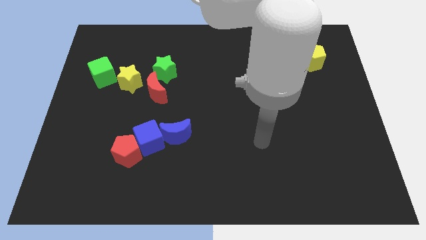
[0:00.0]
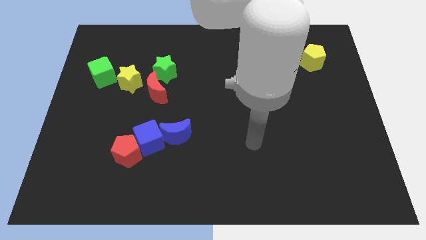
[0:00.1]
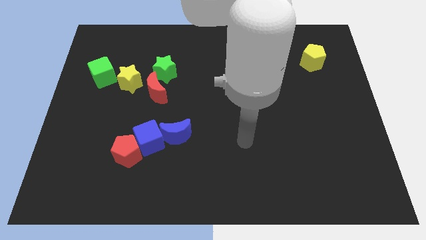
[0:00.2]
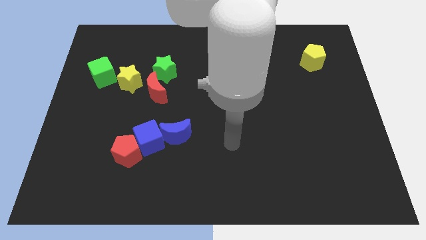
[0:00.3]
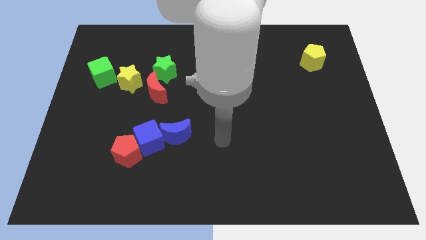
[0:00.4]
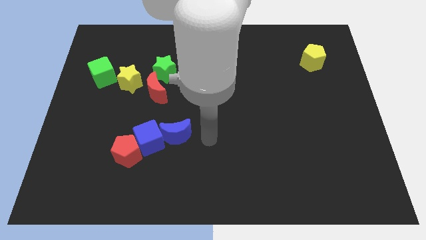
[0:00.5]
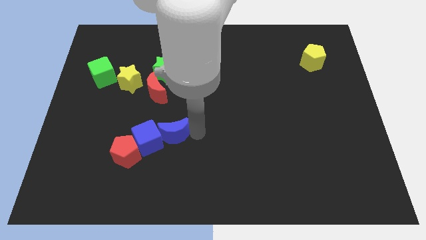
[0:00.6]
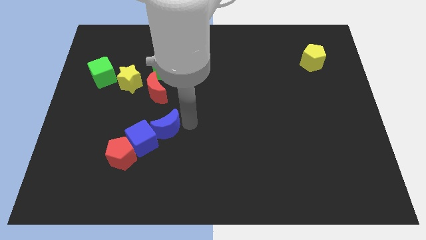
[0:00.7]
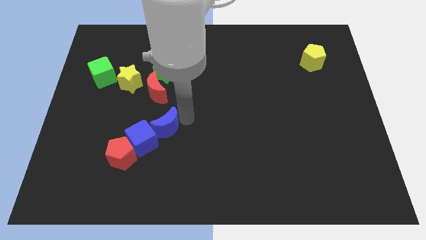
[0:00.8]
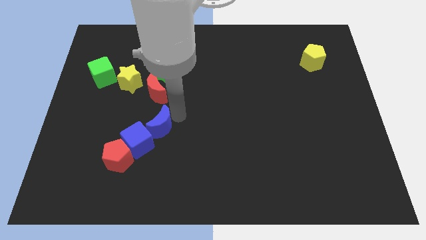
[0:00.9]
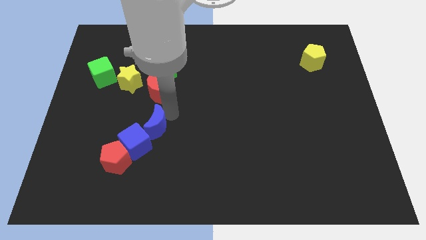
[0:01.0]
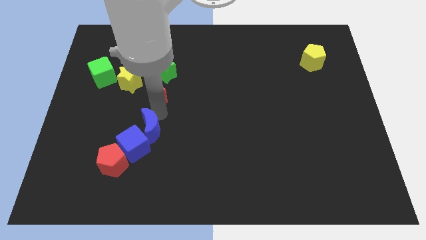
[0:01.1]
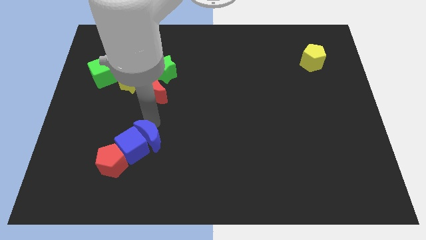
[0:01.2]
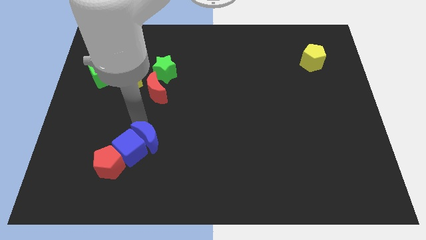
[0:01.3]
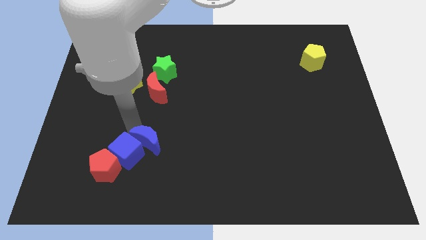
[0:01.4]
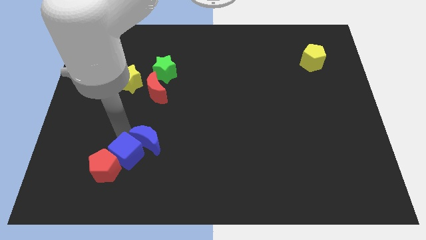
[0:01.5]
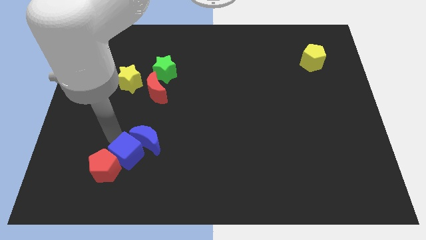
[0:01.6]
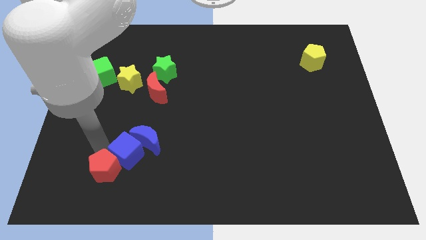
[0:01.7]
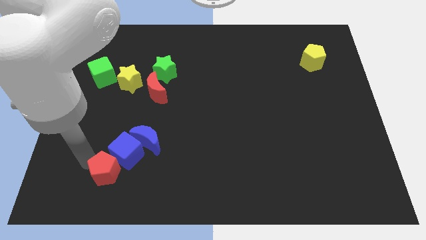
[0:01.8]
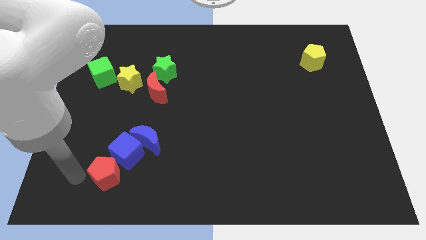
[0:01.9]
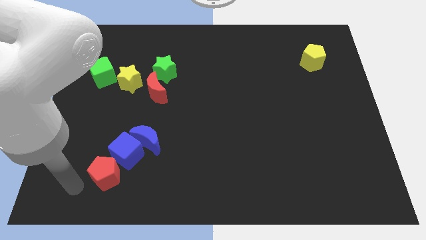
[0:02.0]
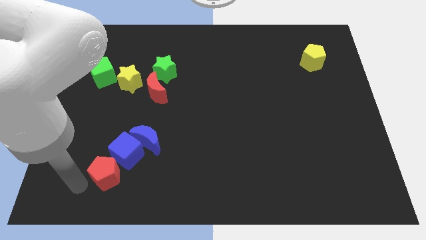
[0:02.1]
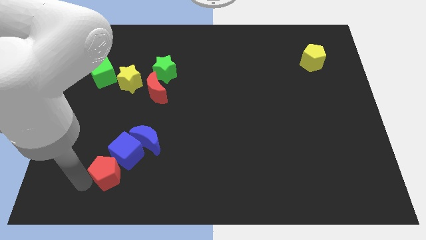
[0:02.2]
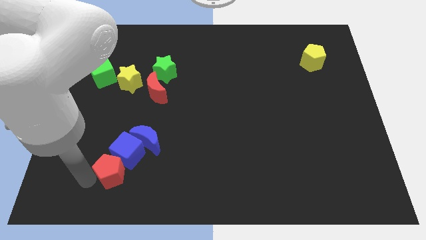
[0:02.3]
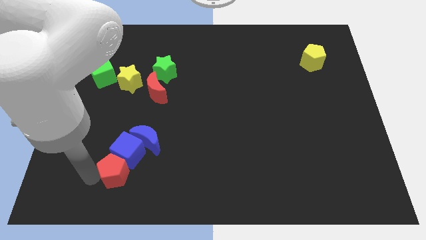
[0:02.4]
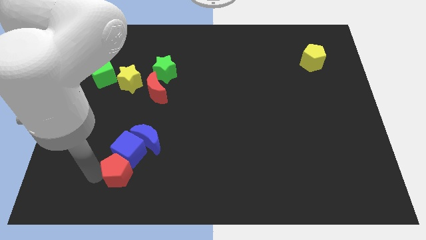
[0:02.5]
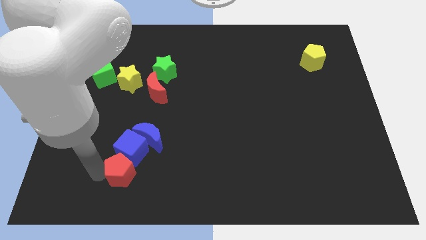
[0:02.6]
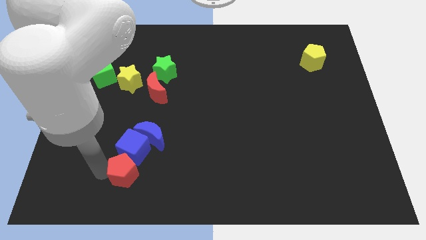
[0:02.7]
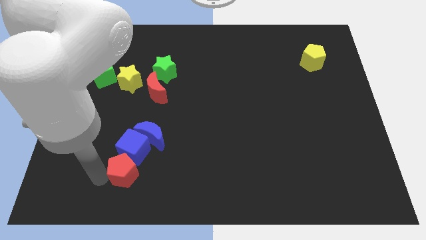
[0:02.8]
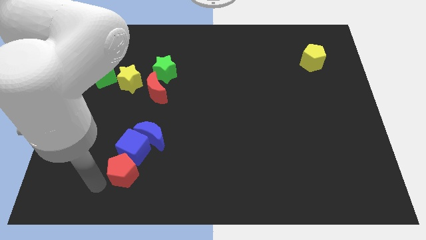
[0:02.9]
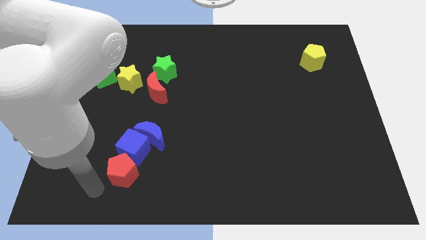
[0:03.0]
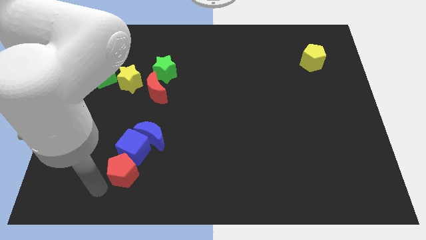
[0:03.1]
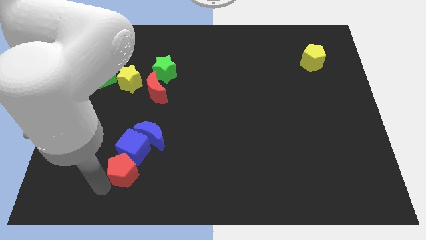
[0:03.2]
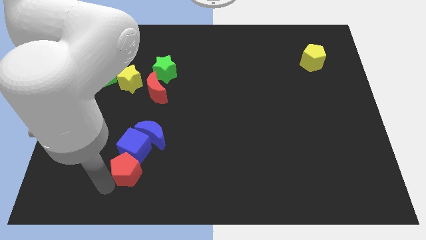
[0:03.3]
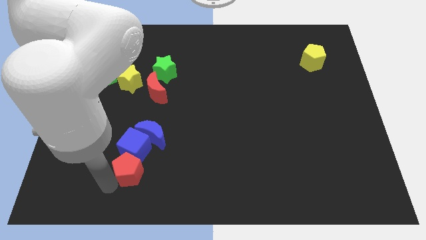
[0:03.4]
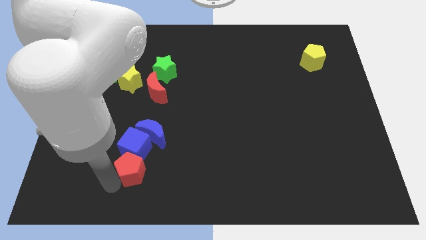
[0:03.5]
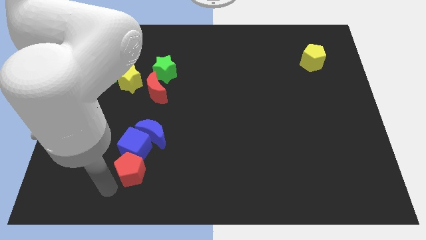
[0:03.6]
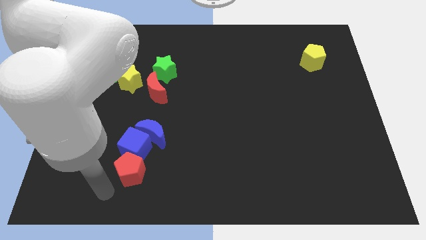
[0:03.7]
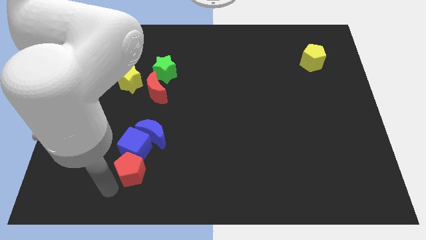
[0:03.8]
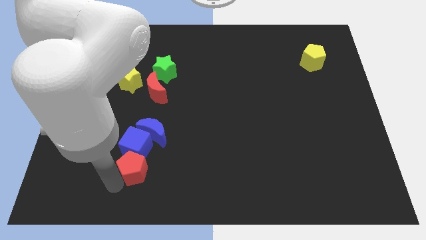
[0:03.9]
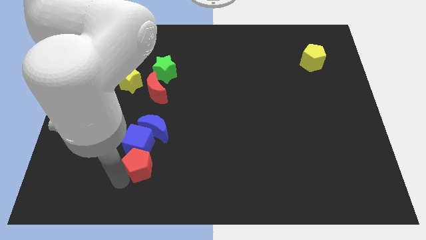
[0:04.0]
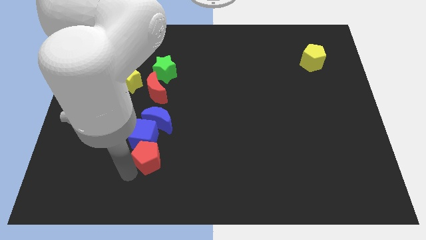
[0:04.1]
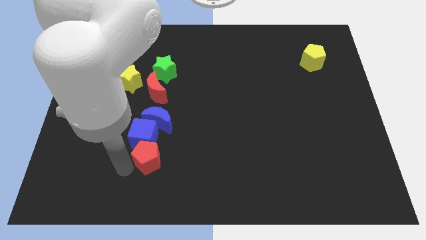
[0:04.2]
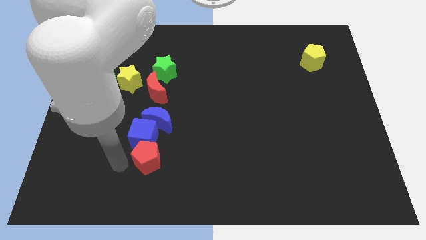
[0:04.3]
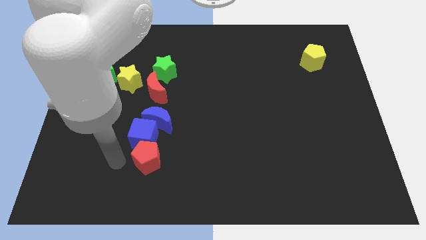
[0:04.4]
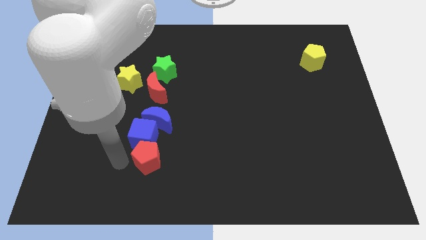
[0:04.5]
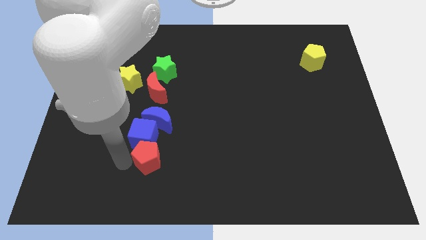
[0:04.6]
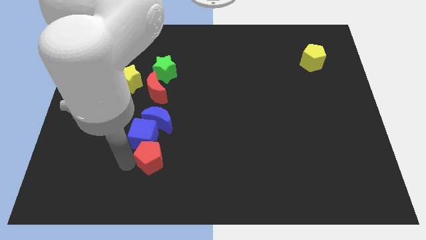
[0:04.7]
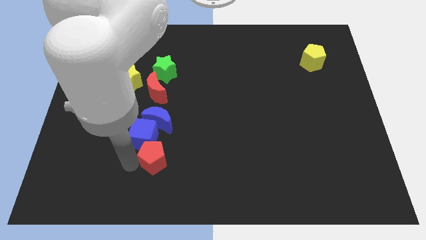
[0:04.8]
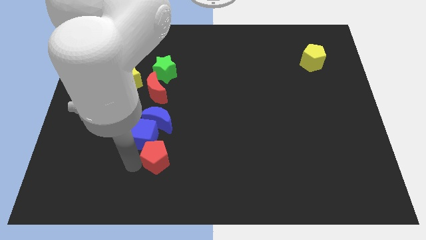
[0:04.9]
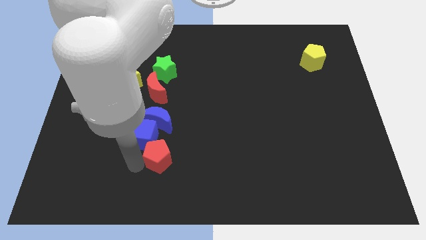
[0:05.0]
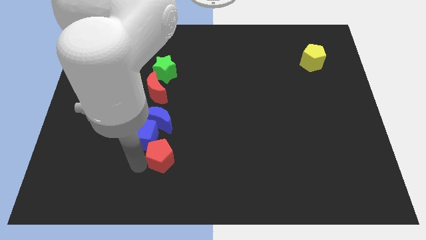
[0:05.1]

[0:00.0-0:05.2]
slightly move the red pentagon right

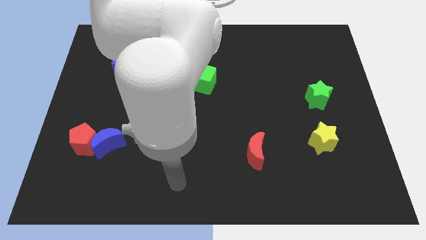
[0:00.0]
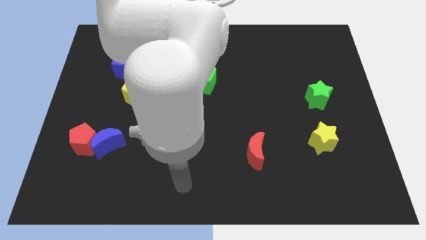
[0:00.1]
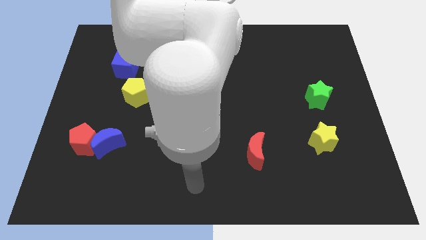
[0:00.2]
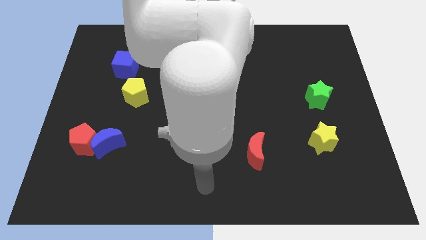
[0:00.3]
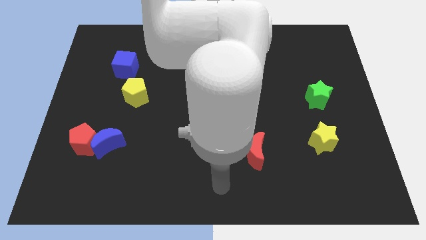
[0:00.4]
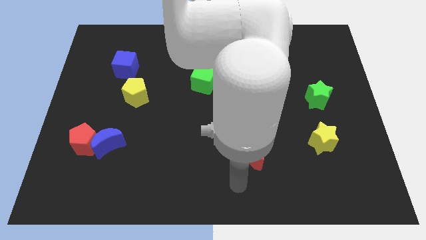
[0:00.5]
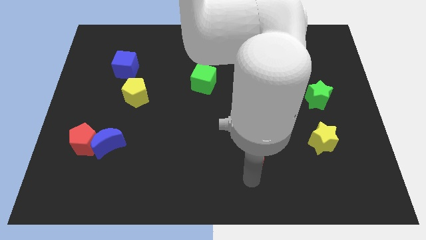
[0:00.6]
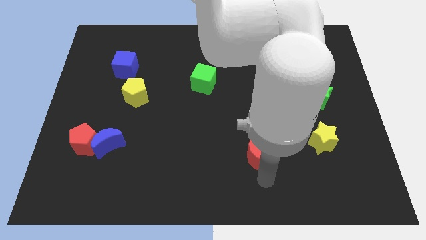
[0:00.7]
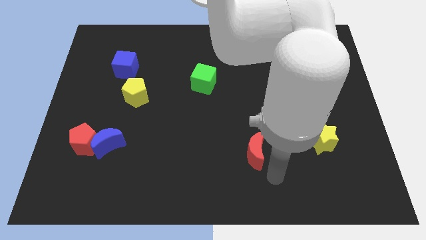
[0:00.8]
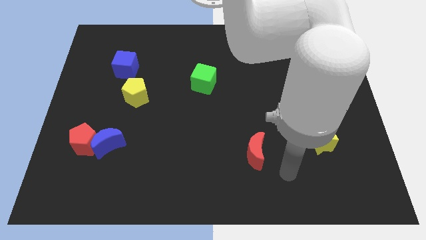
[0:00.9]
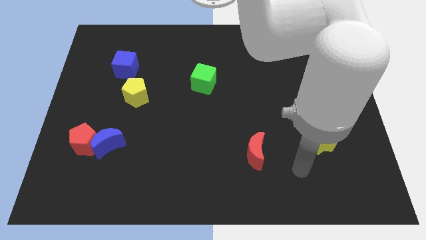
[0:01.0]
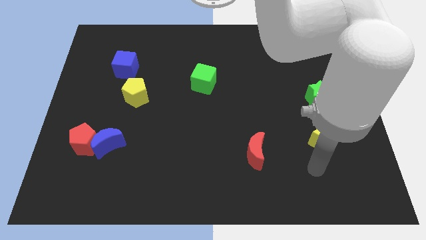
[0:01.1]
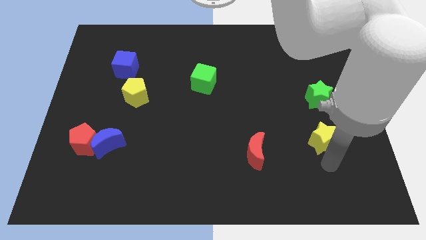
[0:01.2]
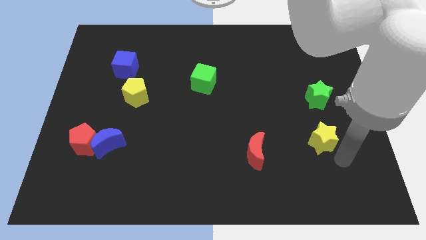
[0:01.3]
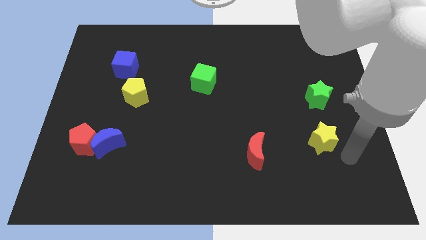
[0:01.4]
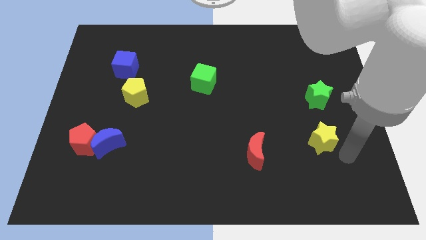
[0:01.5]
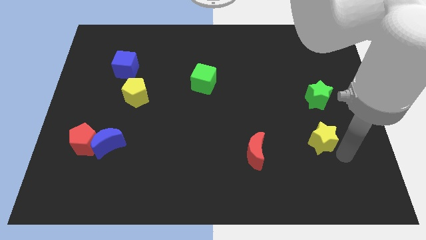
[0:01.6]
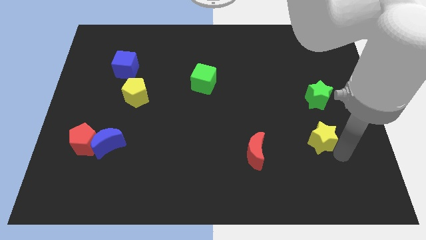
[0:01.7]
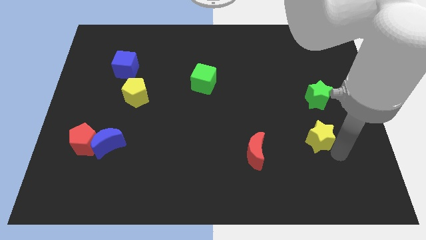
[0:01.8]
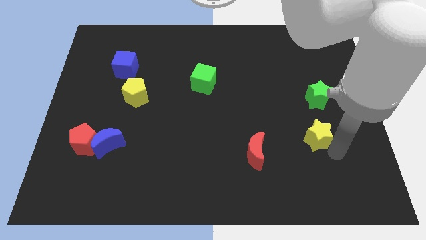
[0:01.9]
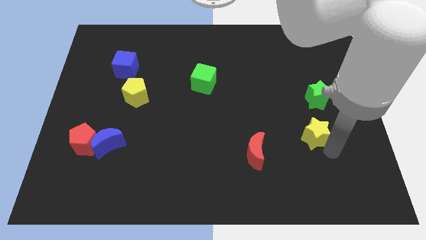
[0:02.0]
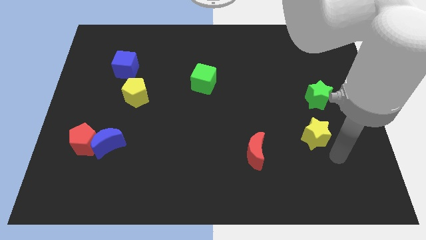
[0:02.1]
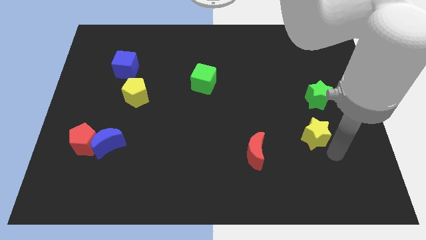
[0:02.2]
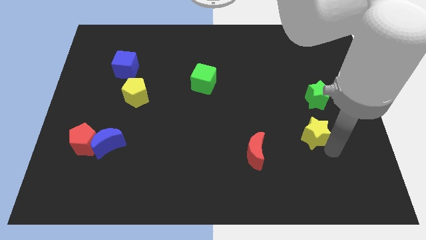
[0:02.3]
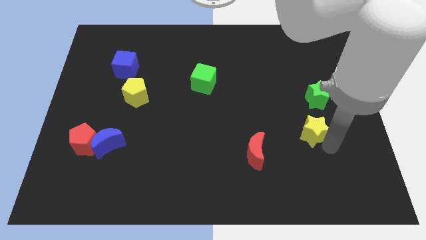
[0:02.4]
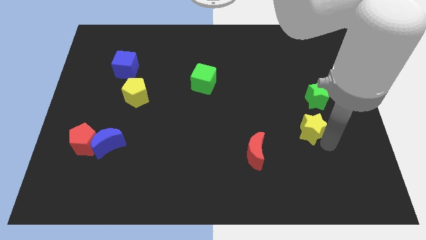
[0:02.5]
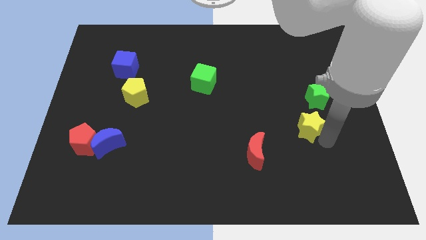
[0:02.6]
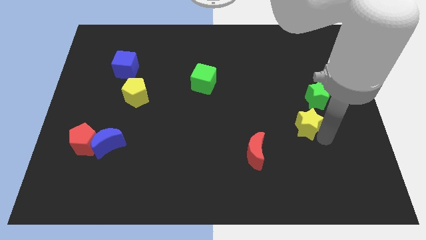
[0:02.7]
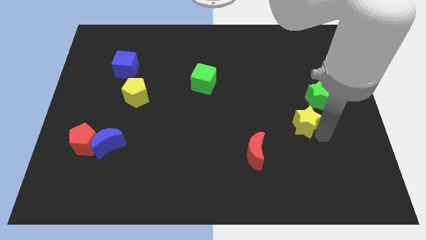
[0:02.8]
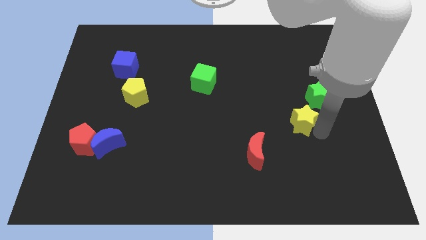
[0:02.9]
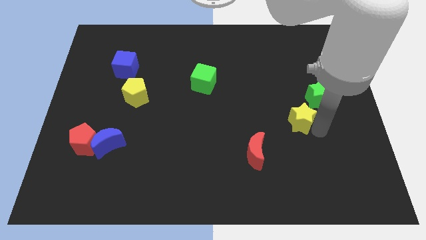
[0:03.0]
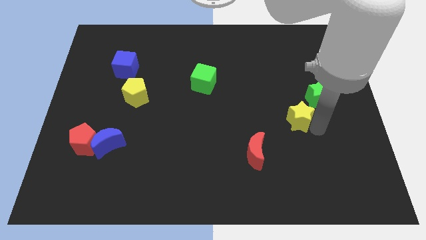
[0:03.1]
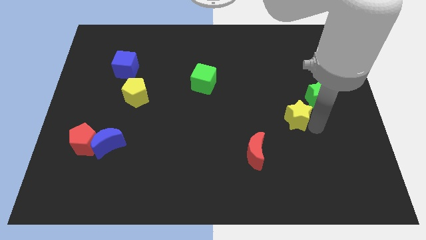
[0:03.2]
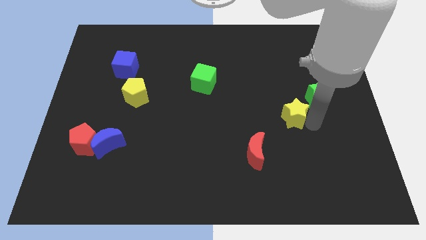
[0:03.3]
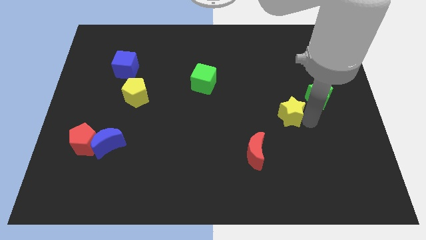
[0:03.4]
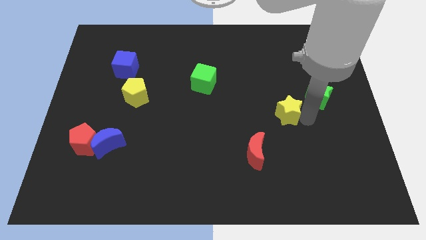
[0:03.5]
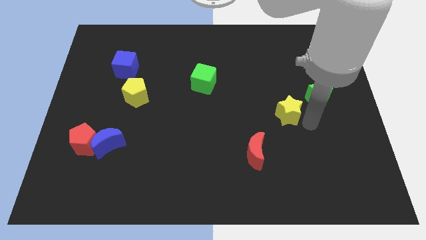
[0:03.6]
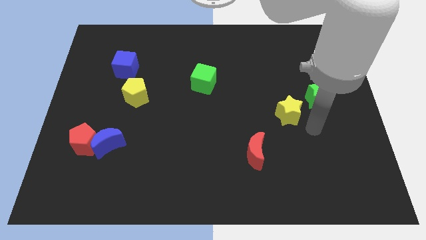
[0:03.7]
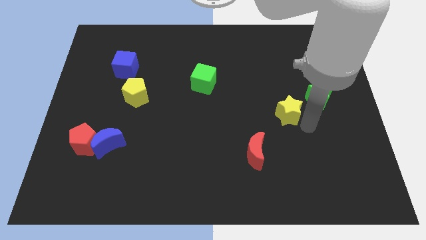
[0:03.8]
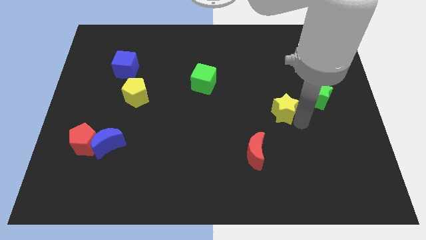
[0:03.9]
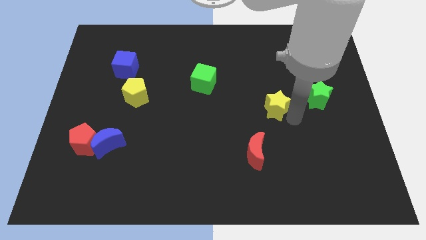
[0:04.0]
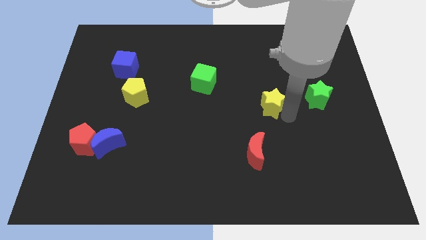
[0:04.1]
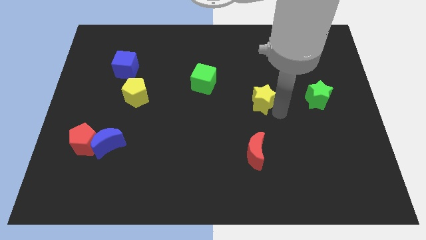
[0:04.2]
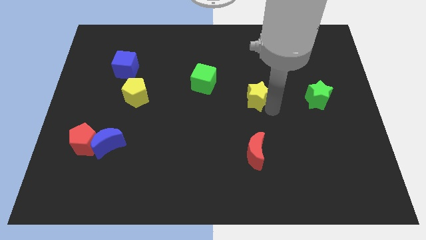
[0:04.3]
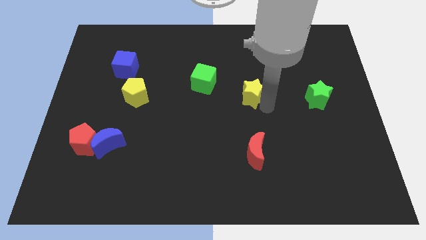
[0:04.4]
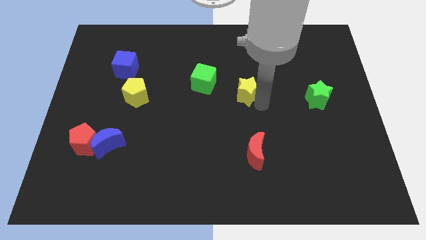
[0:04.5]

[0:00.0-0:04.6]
slide the yellow star upwards and to the left
